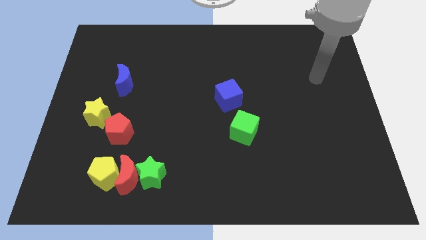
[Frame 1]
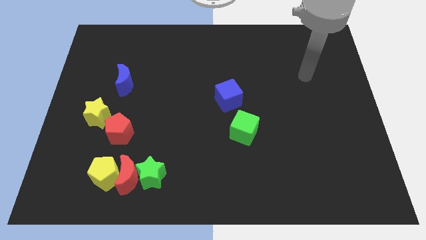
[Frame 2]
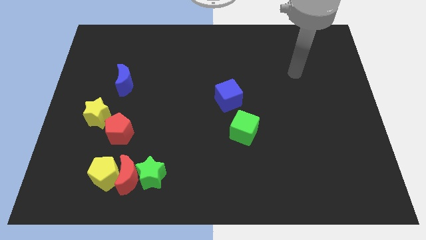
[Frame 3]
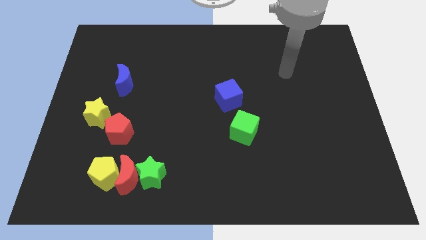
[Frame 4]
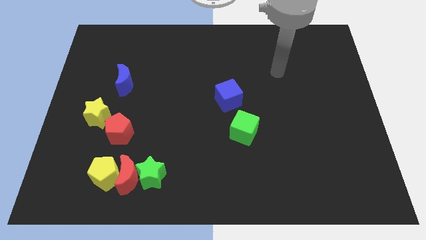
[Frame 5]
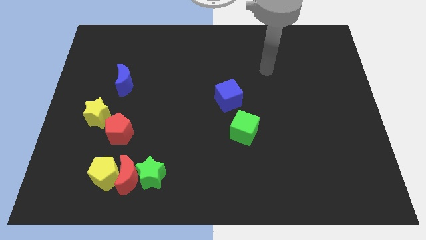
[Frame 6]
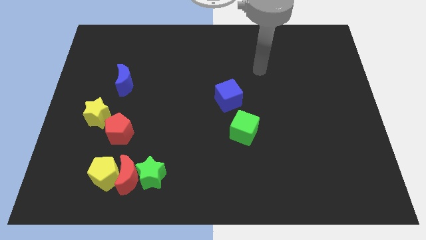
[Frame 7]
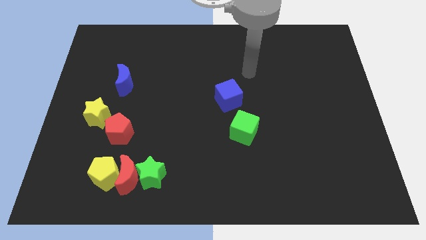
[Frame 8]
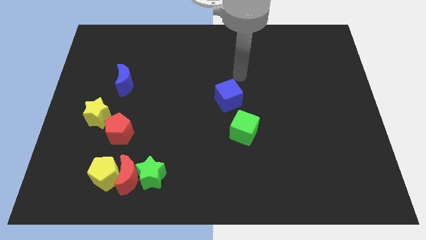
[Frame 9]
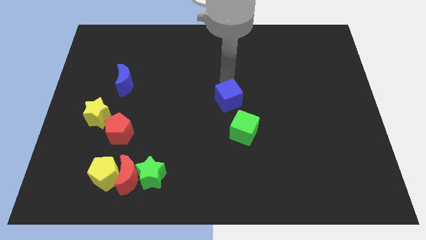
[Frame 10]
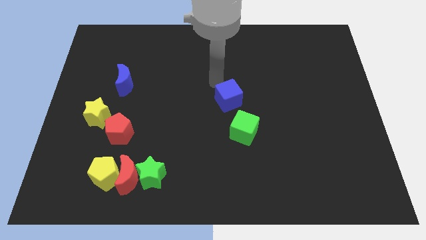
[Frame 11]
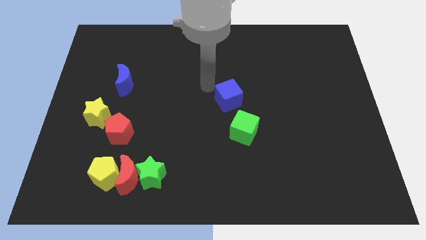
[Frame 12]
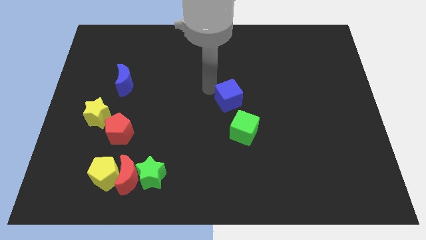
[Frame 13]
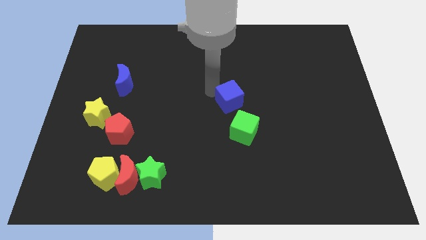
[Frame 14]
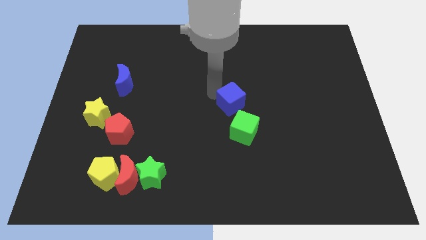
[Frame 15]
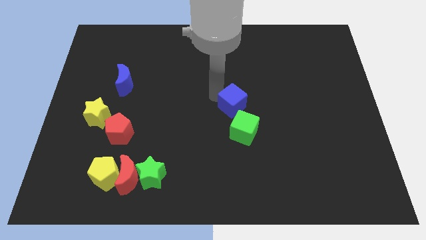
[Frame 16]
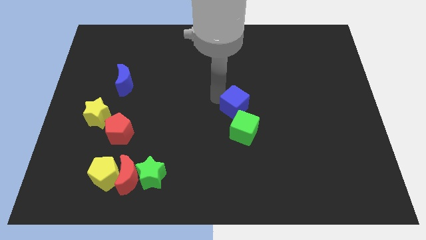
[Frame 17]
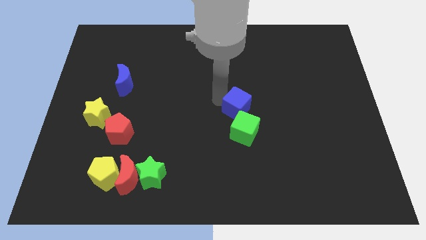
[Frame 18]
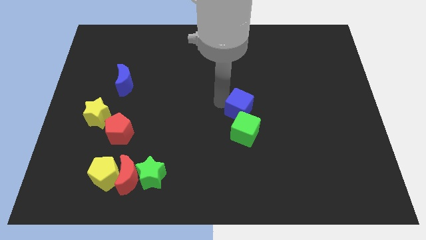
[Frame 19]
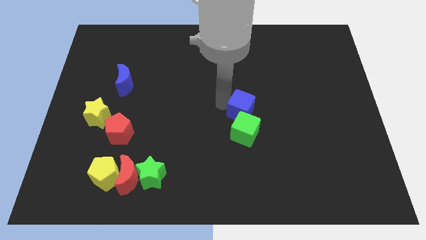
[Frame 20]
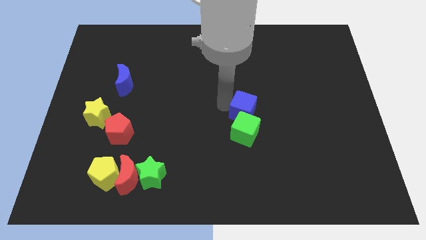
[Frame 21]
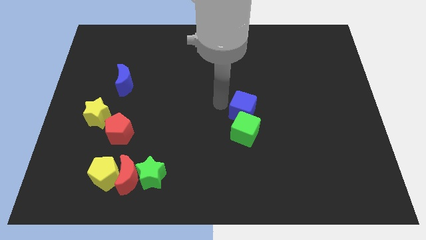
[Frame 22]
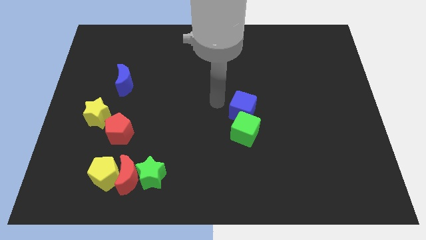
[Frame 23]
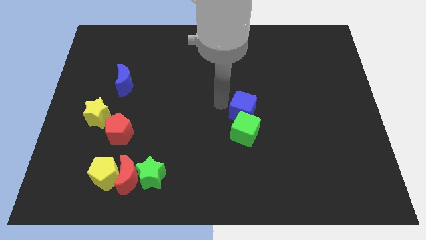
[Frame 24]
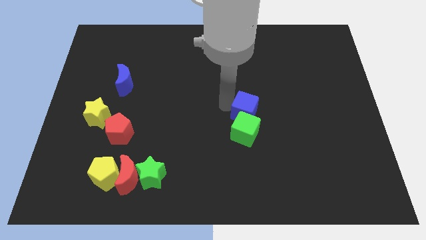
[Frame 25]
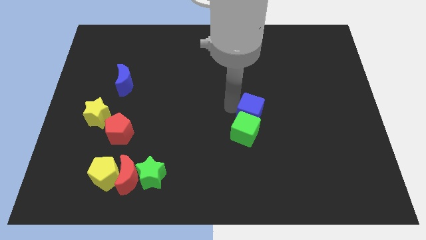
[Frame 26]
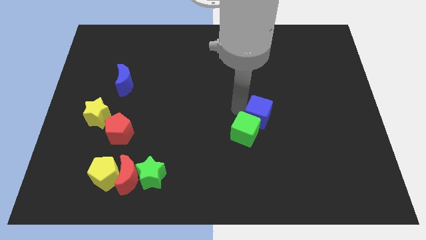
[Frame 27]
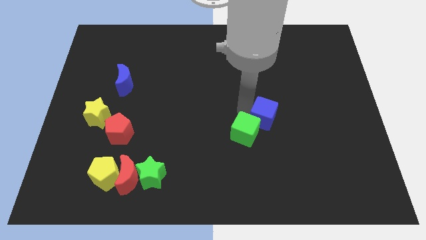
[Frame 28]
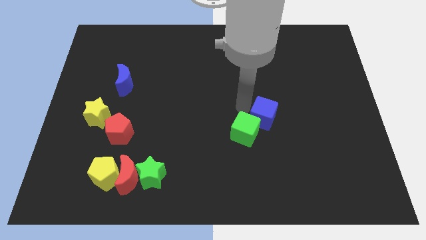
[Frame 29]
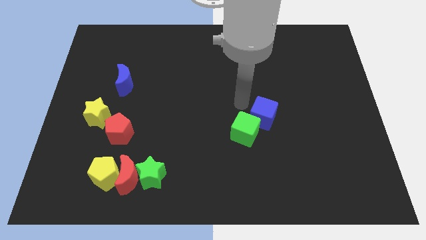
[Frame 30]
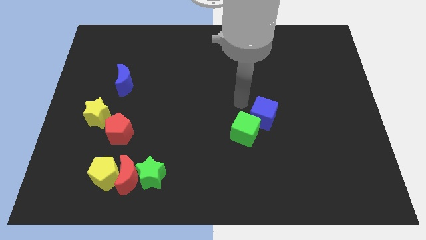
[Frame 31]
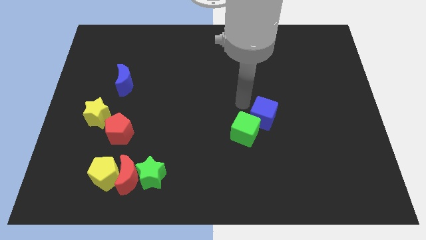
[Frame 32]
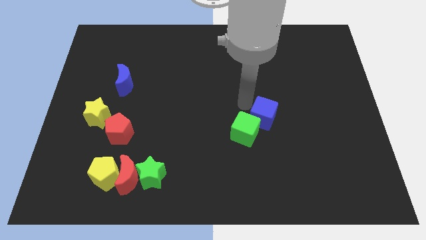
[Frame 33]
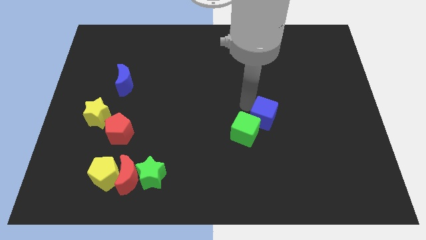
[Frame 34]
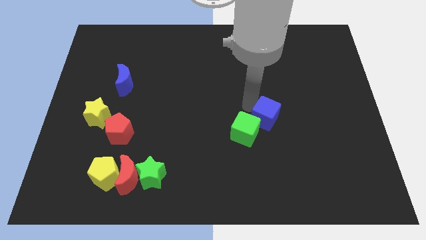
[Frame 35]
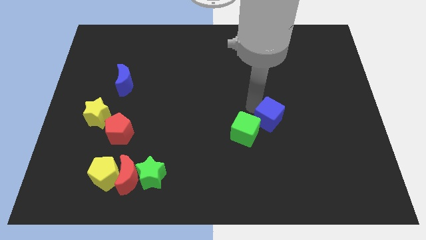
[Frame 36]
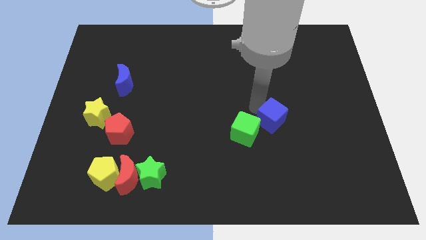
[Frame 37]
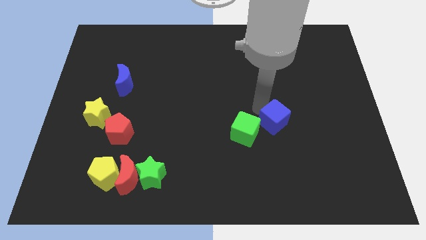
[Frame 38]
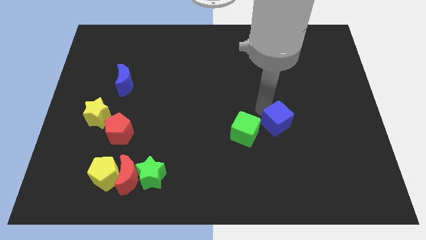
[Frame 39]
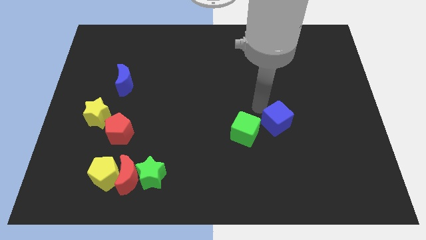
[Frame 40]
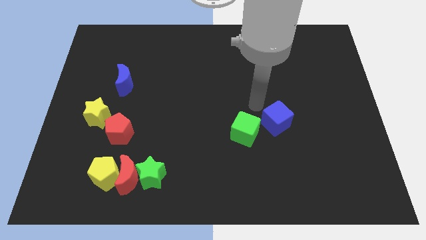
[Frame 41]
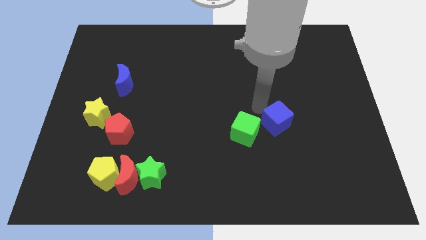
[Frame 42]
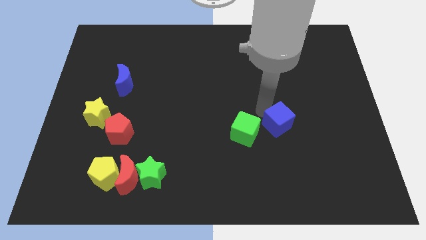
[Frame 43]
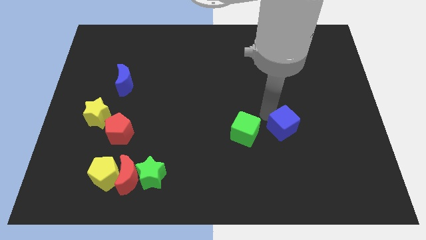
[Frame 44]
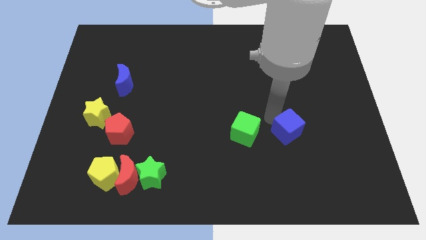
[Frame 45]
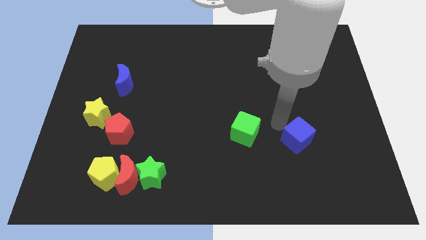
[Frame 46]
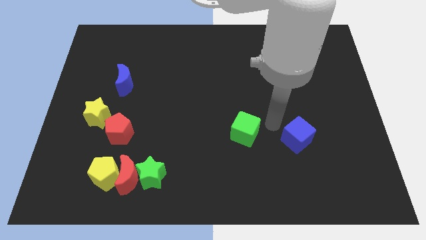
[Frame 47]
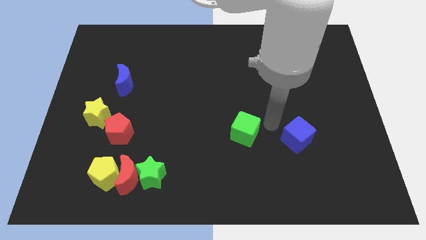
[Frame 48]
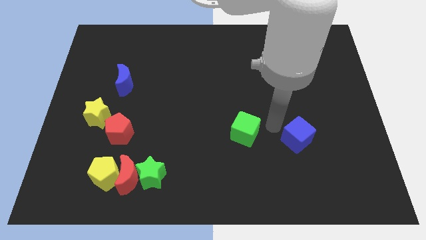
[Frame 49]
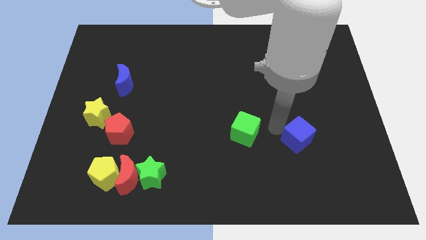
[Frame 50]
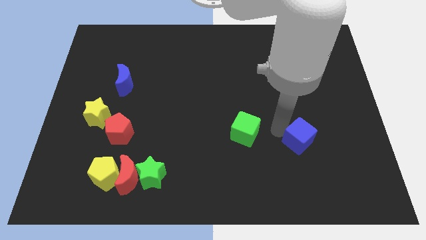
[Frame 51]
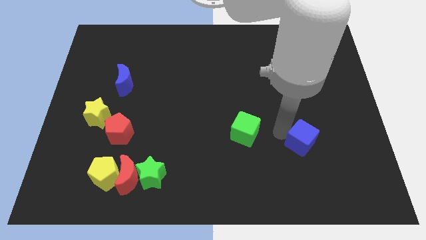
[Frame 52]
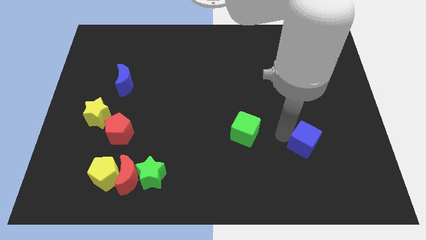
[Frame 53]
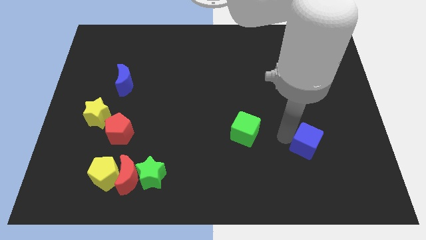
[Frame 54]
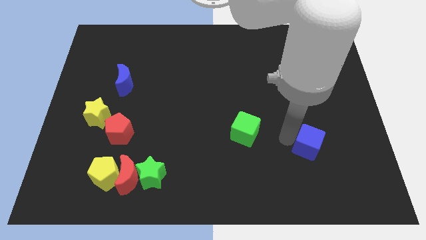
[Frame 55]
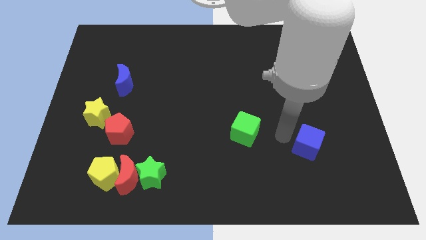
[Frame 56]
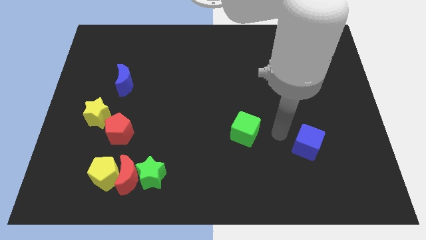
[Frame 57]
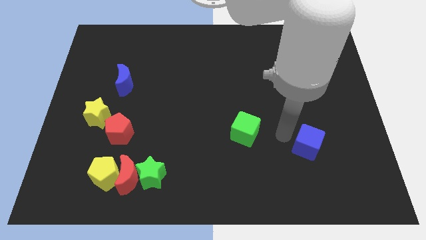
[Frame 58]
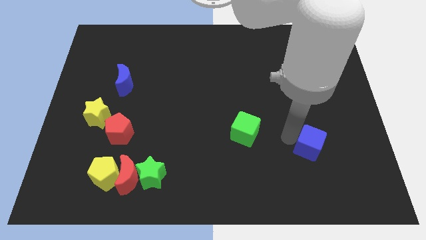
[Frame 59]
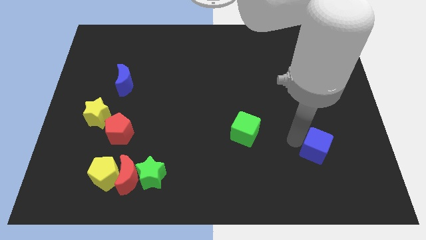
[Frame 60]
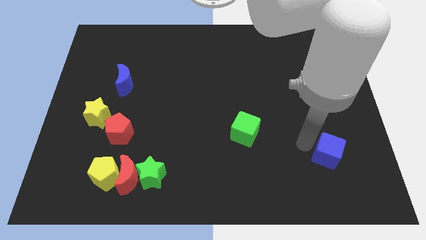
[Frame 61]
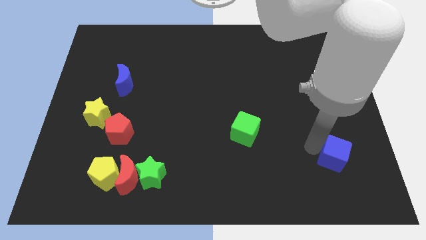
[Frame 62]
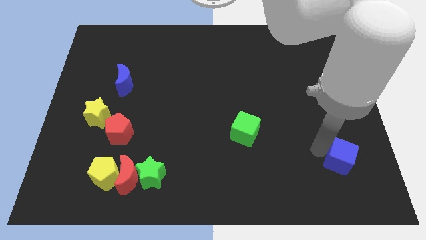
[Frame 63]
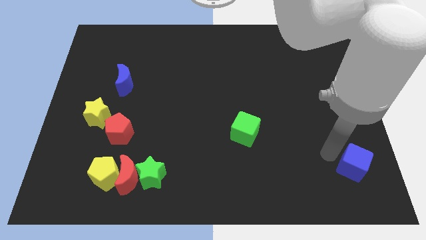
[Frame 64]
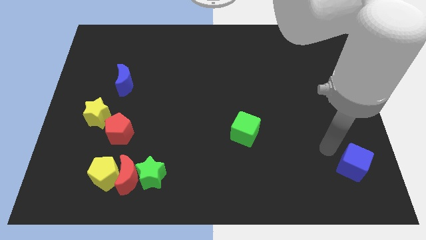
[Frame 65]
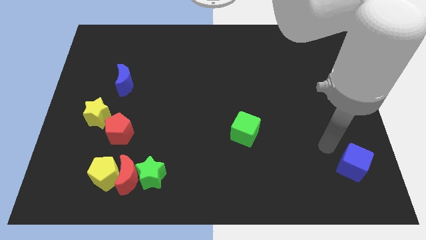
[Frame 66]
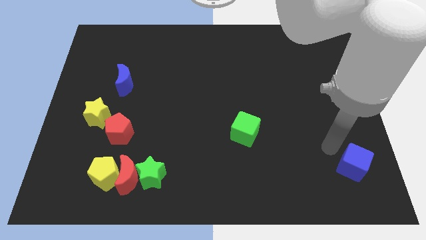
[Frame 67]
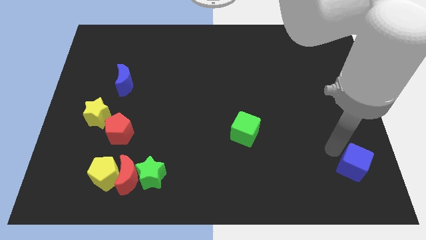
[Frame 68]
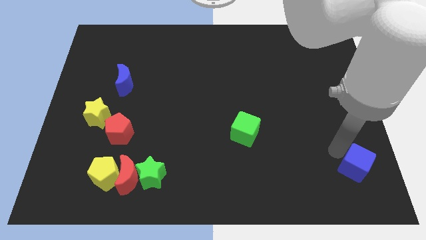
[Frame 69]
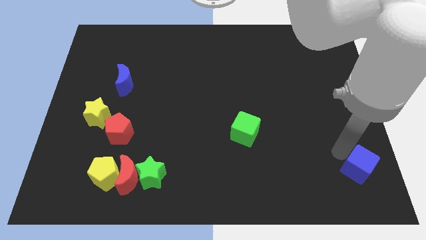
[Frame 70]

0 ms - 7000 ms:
push the blue cube to the bottom right corner
